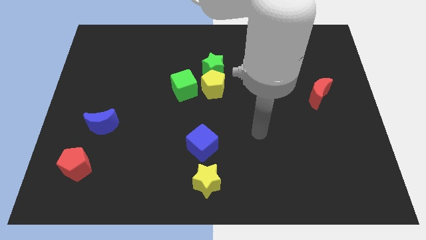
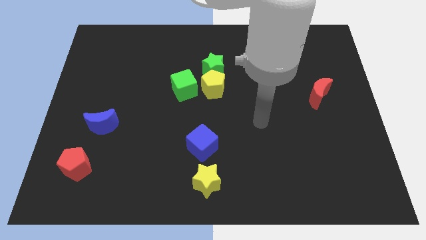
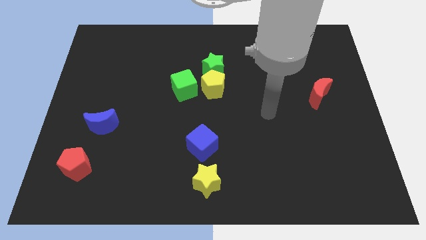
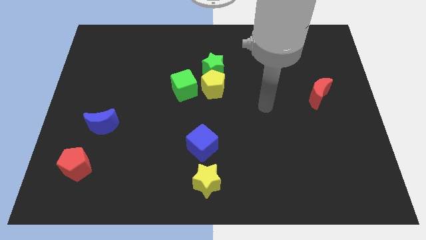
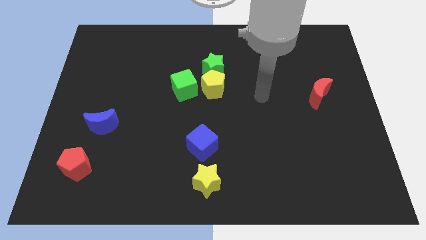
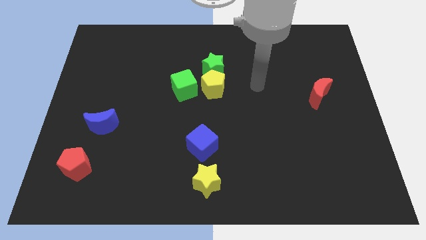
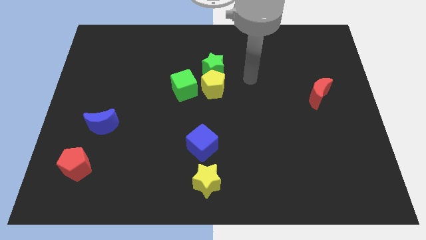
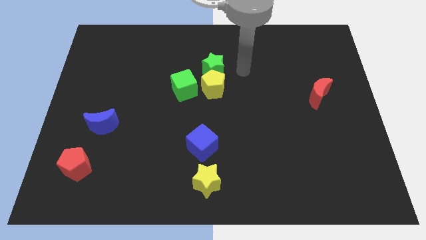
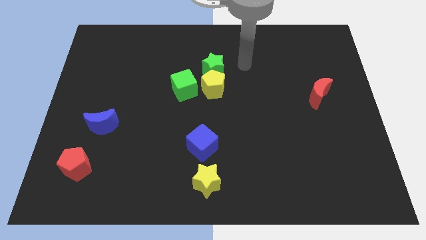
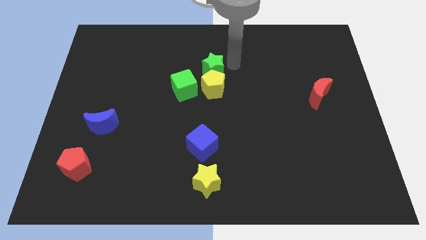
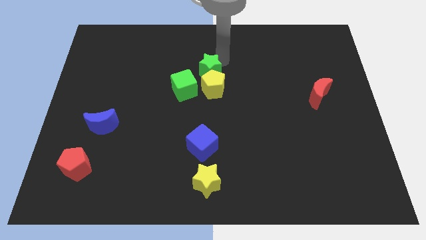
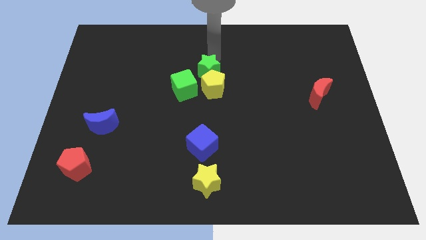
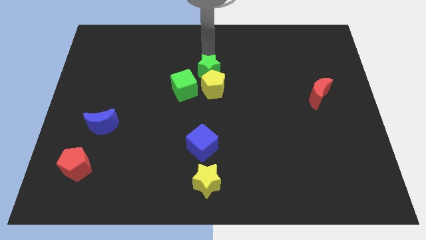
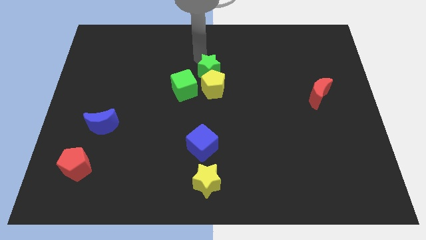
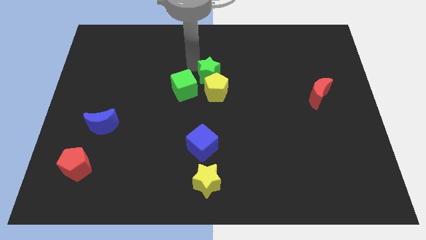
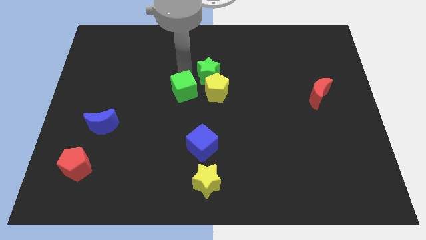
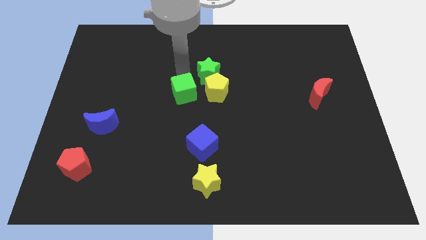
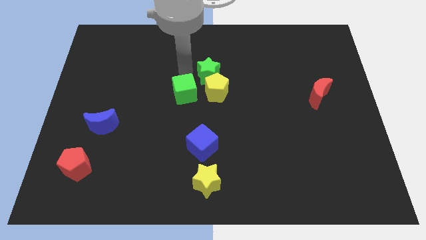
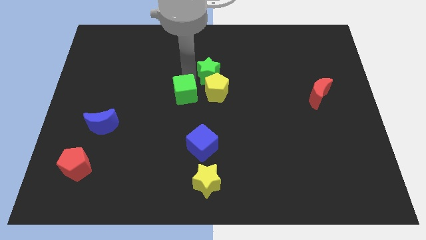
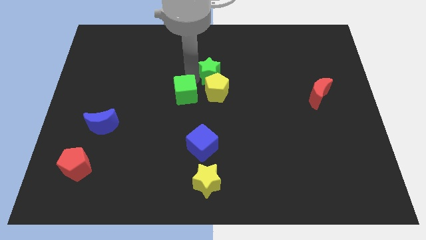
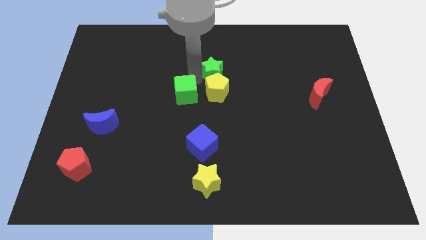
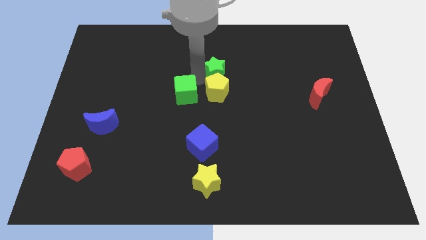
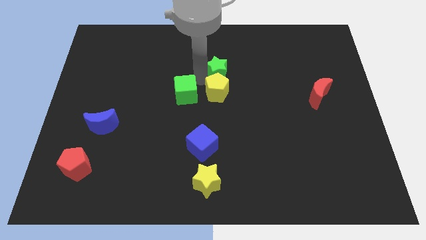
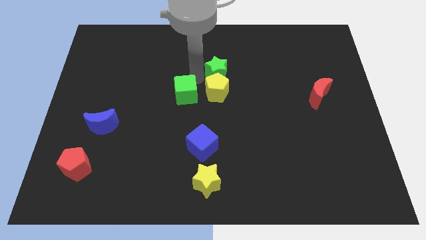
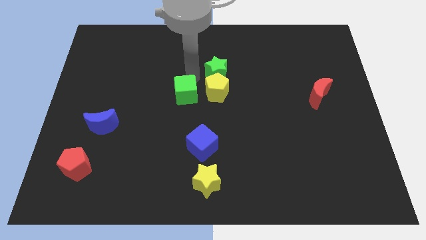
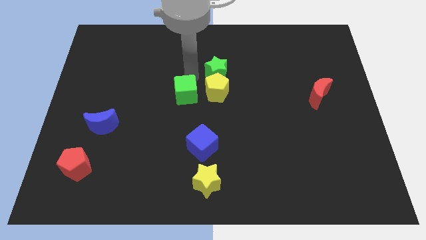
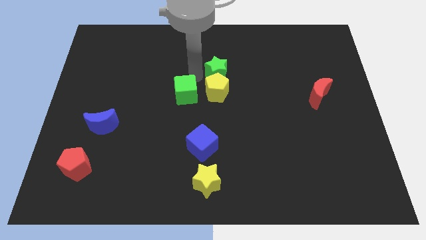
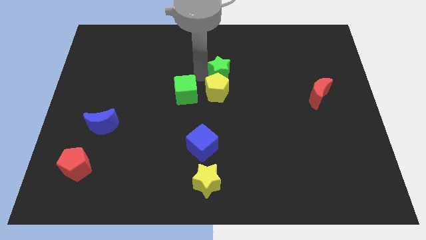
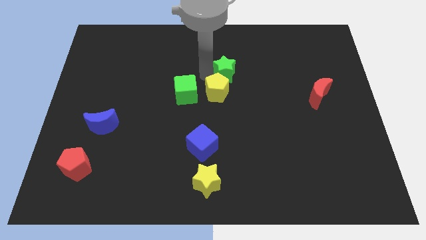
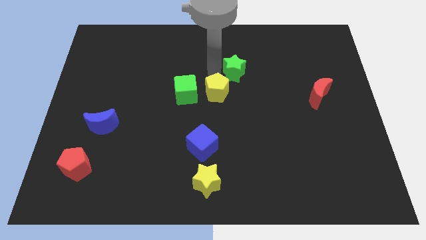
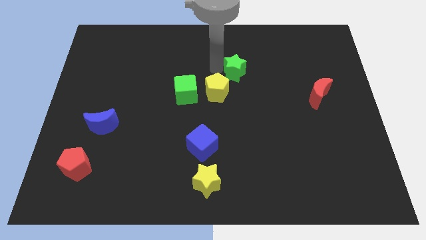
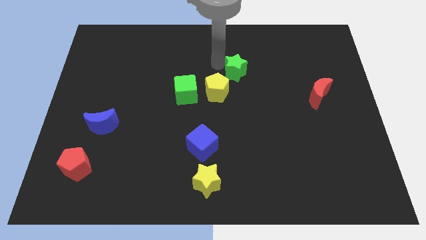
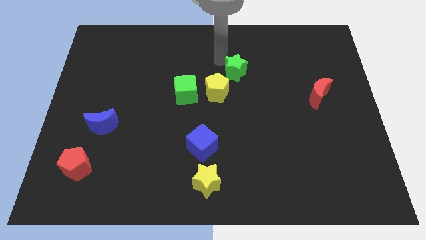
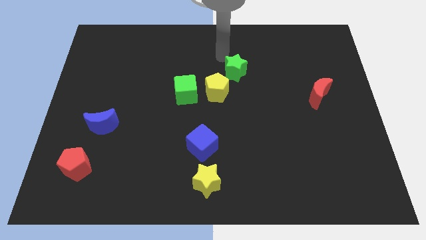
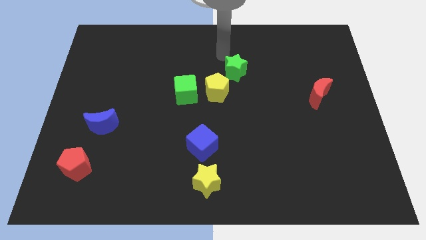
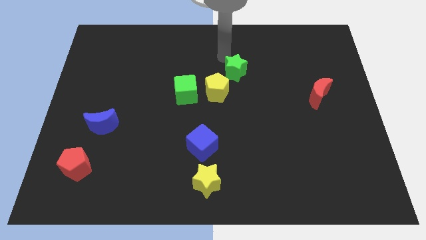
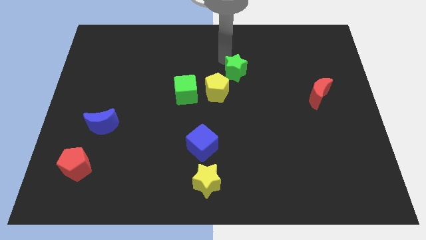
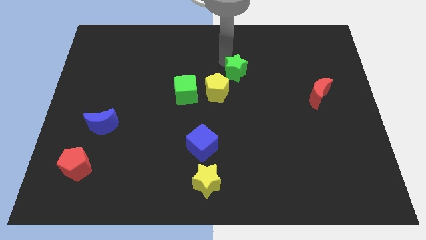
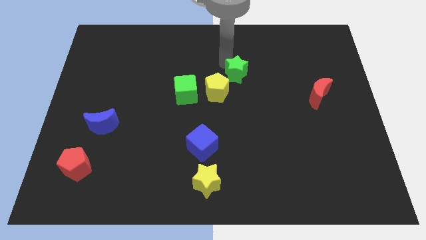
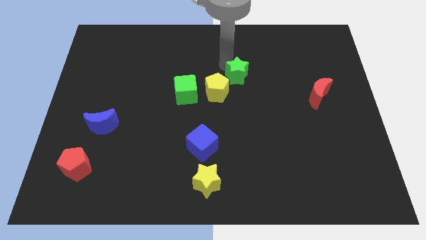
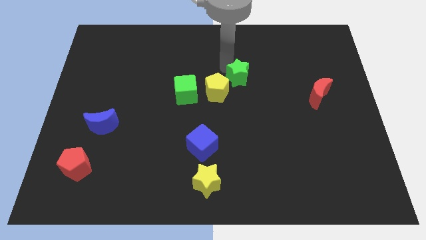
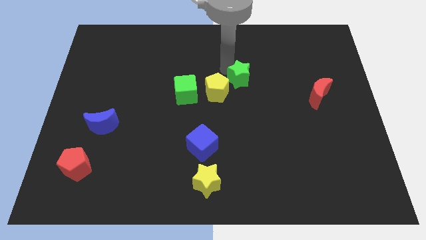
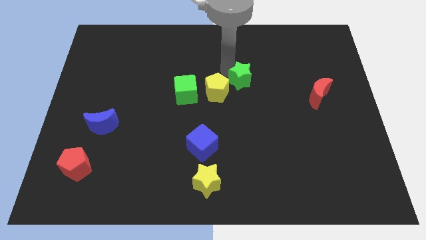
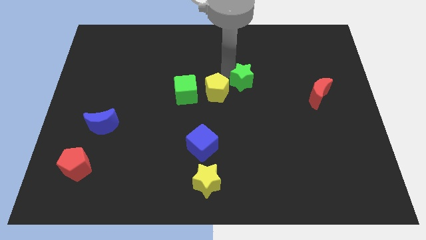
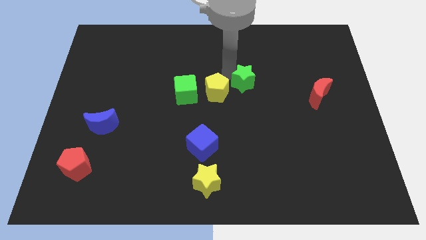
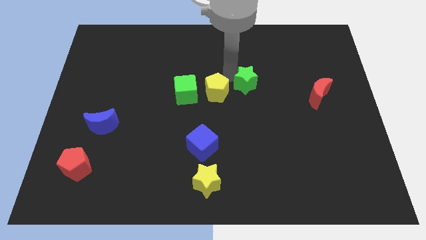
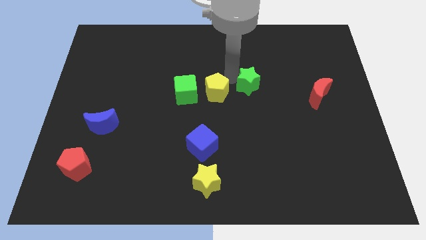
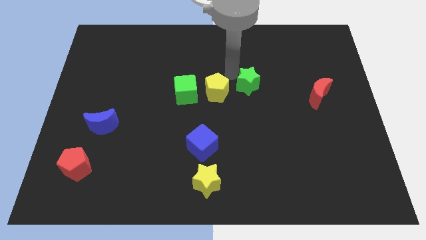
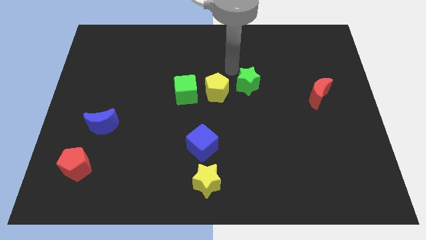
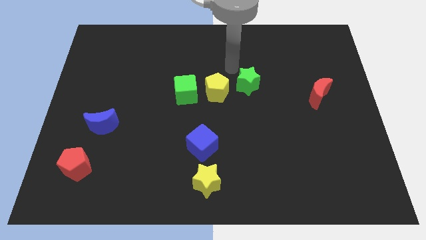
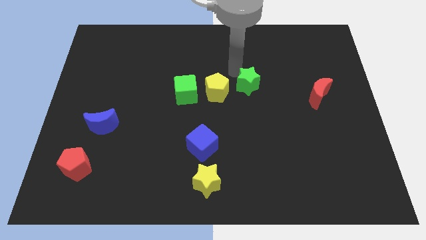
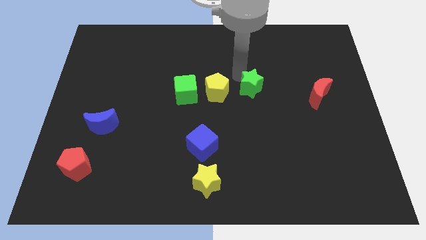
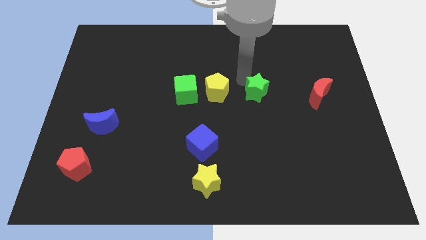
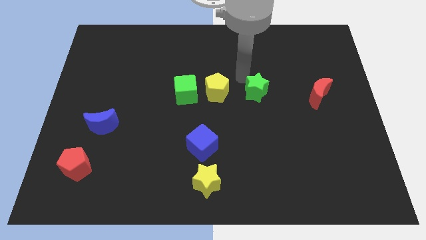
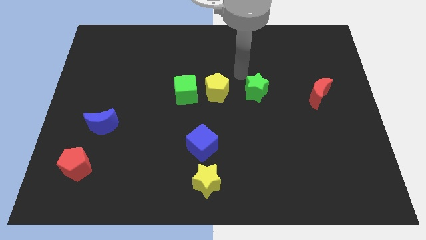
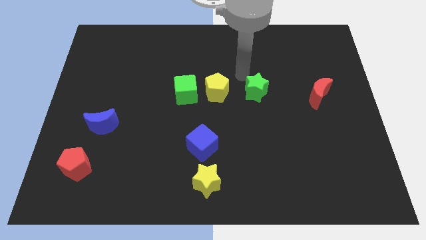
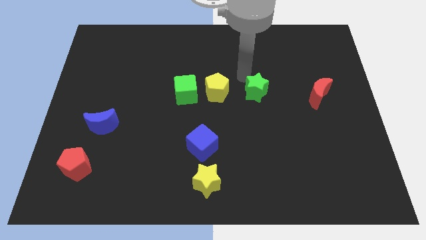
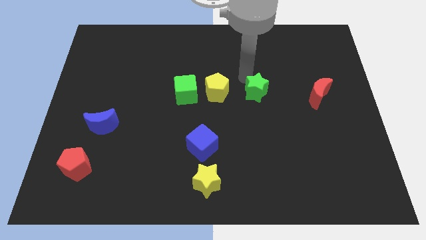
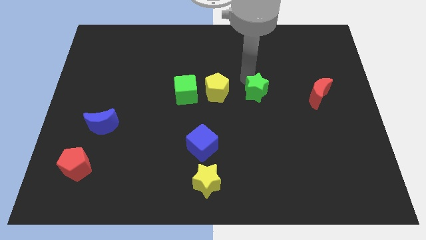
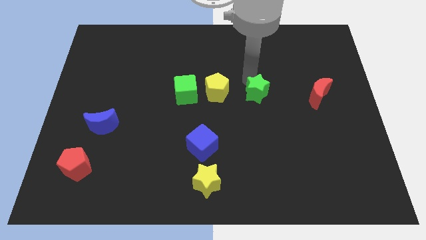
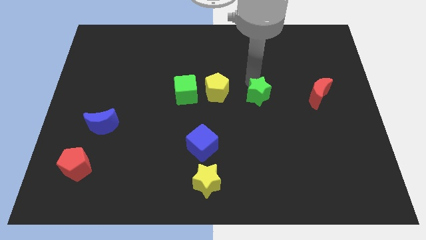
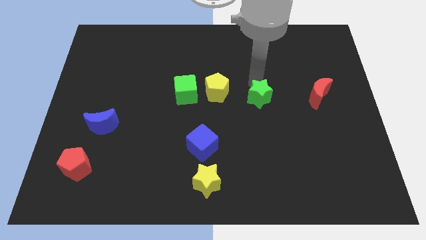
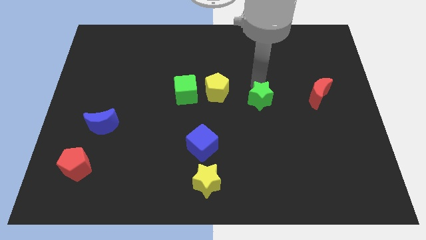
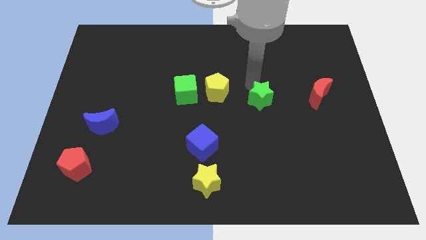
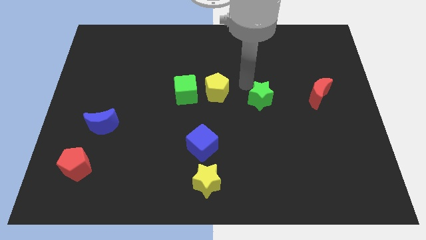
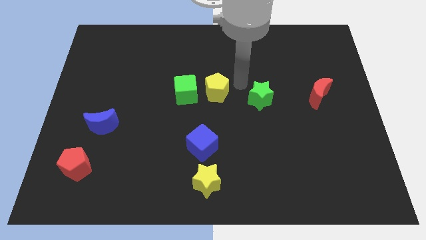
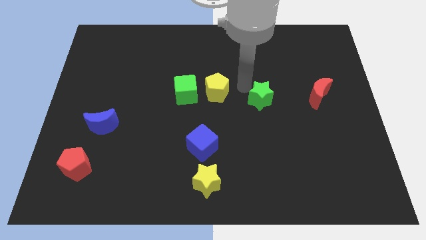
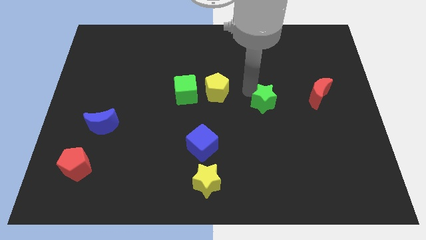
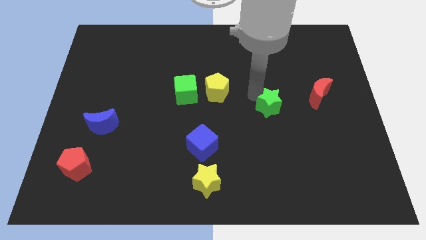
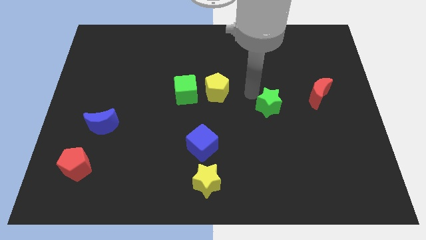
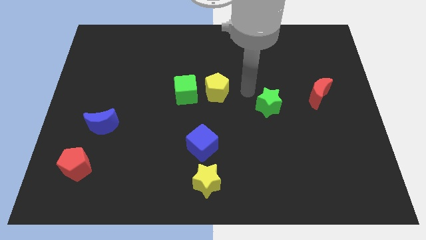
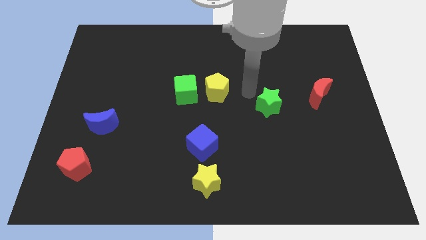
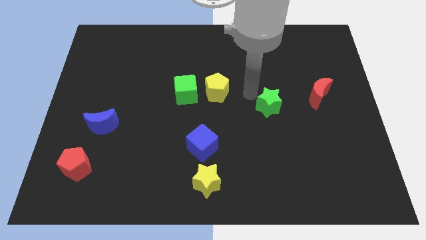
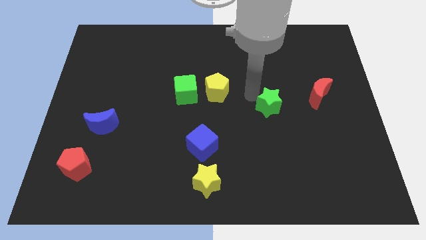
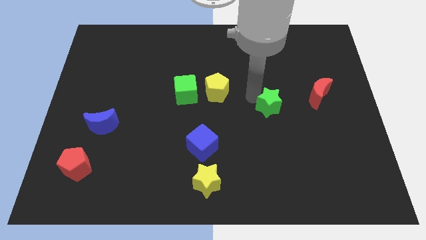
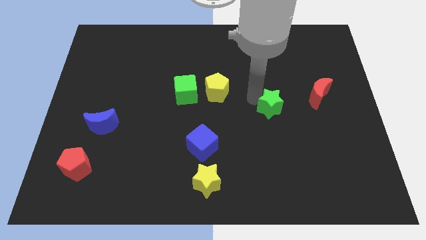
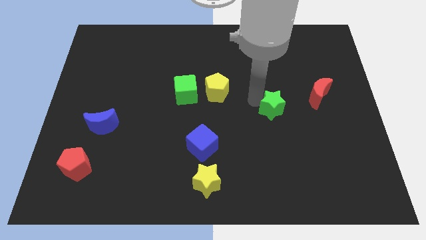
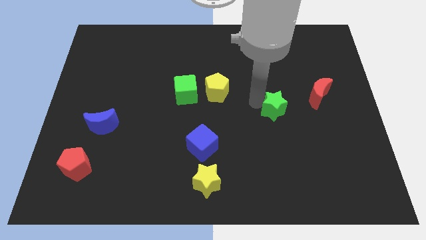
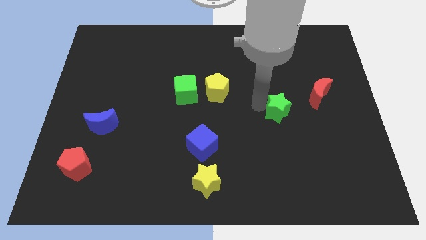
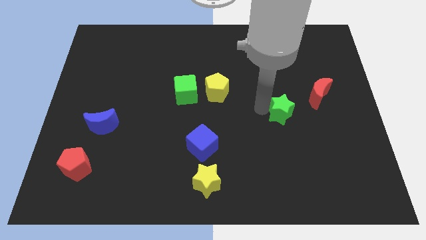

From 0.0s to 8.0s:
slide the green star diagonally downwards and right

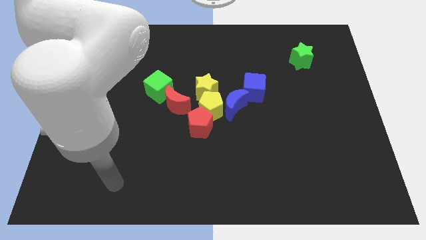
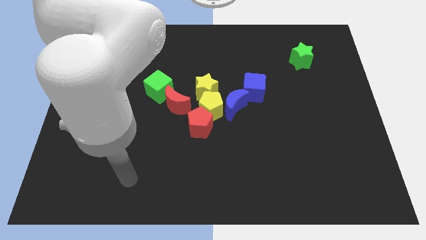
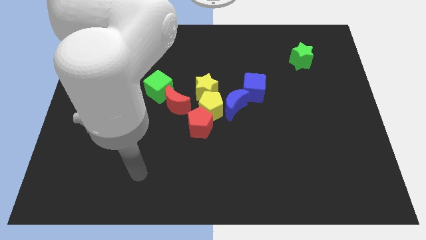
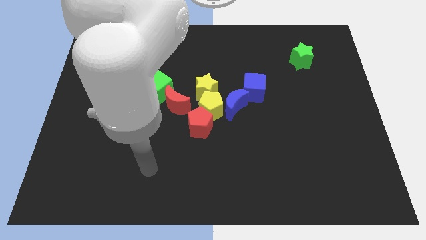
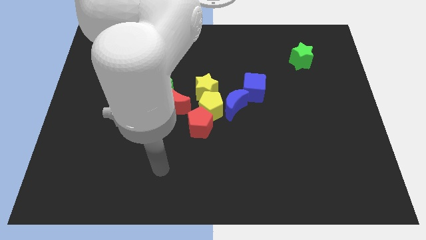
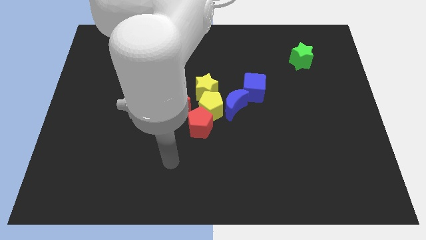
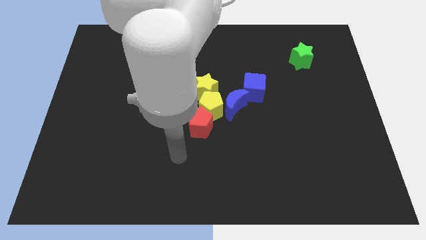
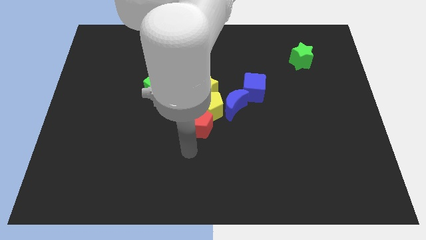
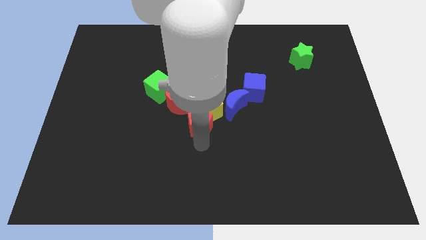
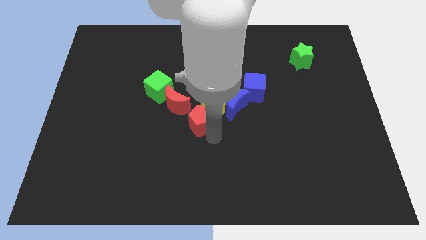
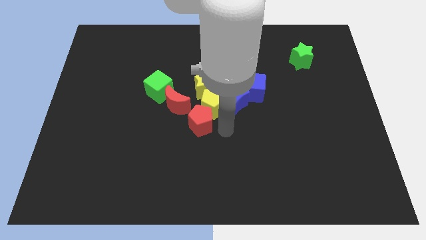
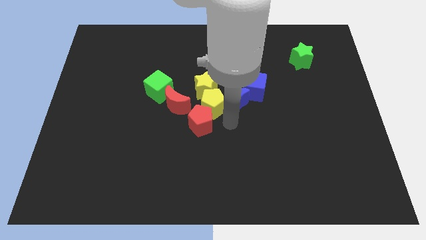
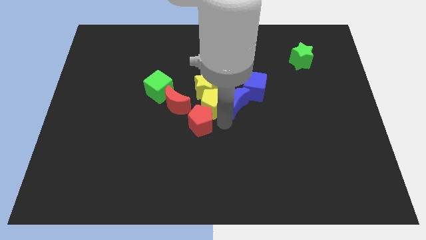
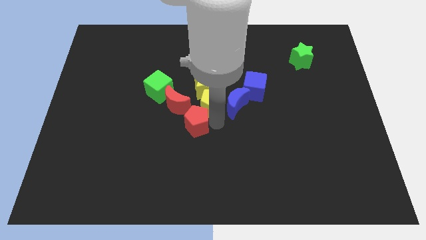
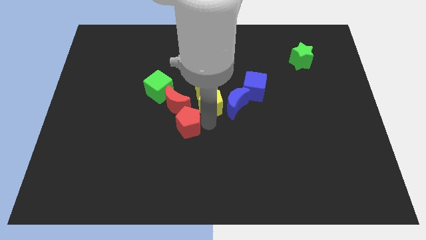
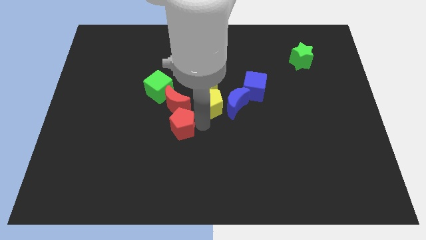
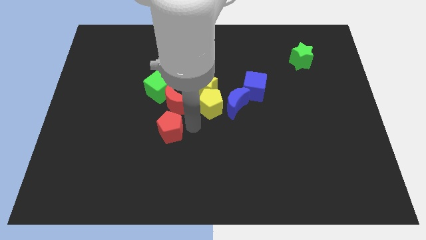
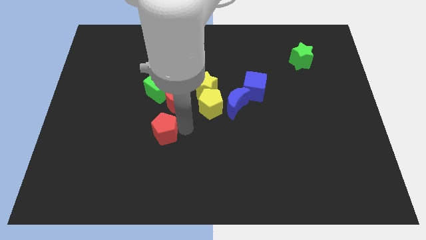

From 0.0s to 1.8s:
slightly slide the red pentagon left
